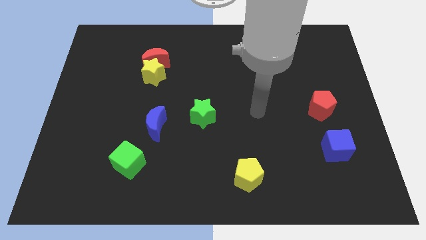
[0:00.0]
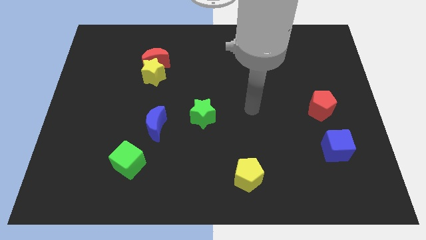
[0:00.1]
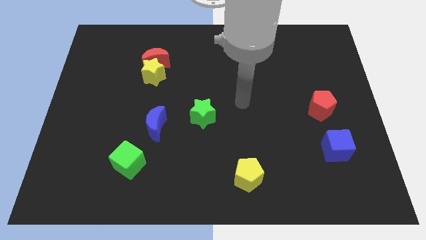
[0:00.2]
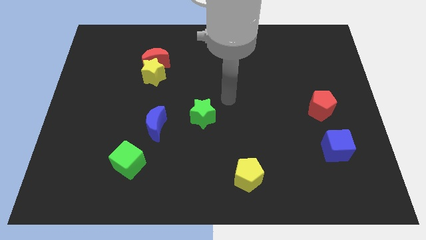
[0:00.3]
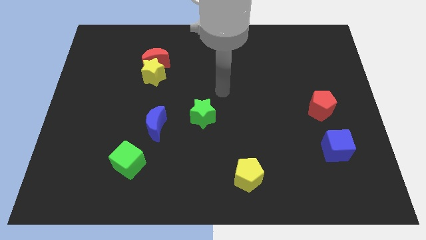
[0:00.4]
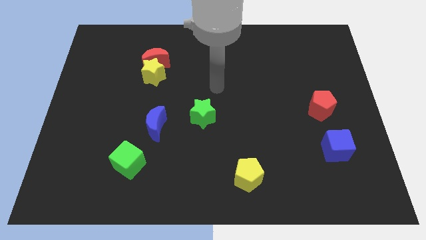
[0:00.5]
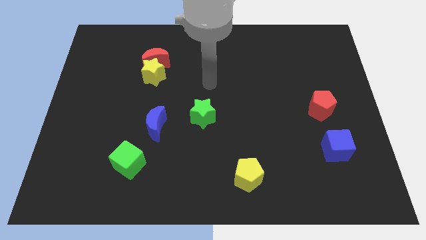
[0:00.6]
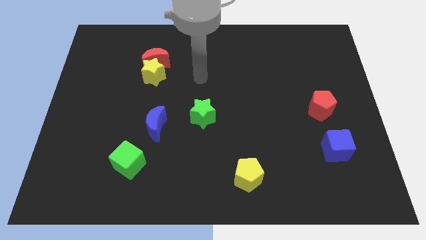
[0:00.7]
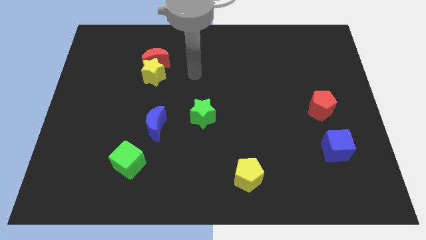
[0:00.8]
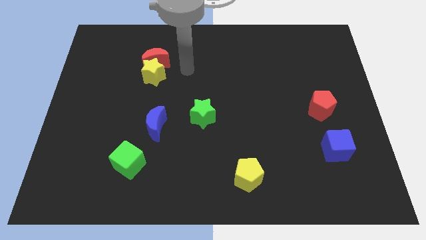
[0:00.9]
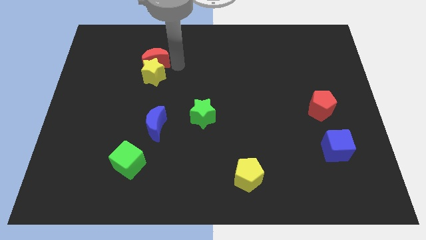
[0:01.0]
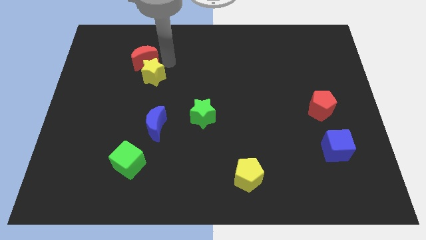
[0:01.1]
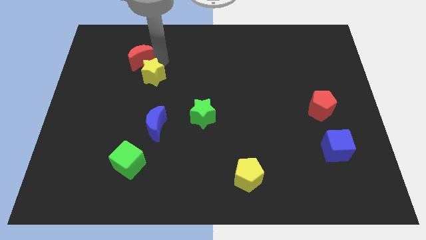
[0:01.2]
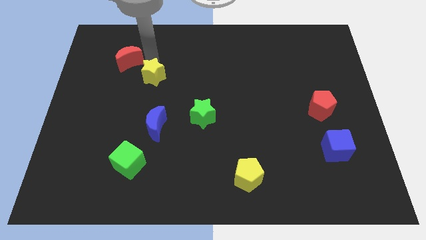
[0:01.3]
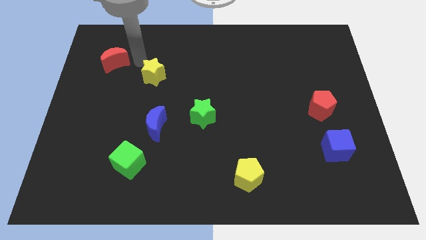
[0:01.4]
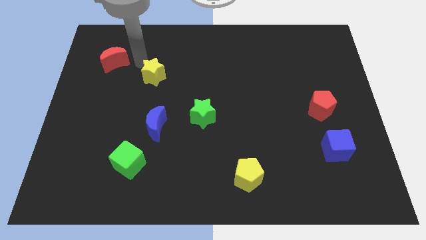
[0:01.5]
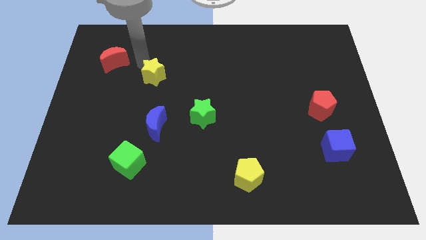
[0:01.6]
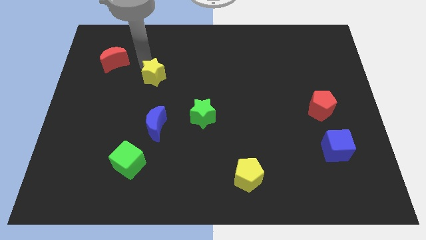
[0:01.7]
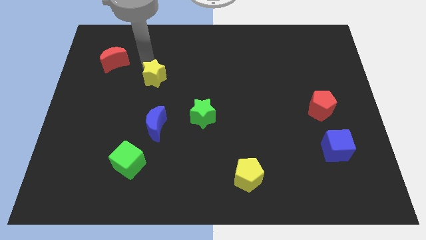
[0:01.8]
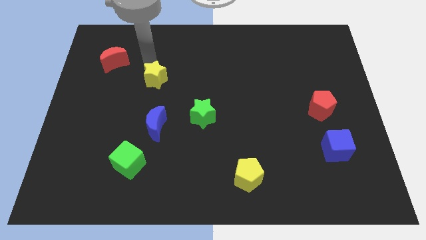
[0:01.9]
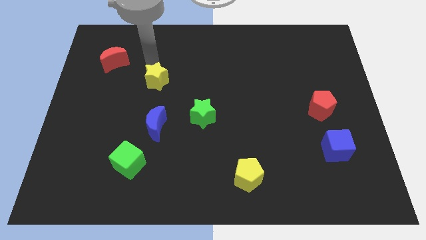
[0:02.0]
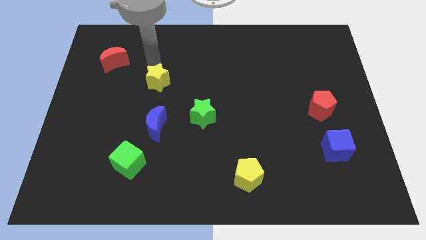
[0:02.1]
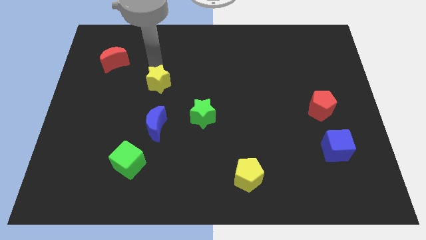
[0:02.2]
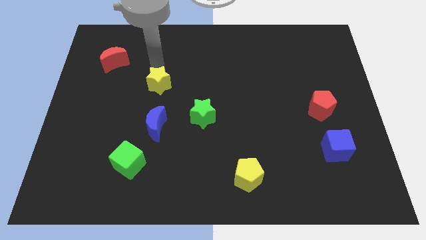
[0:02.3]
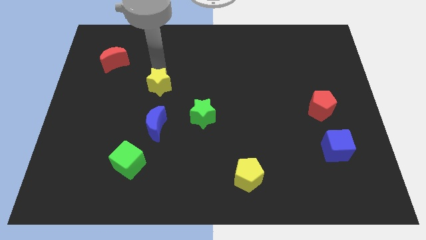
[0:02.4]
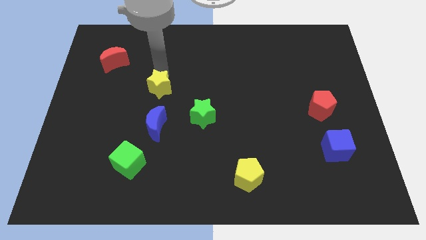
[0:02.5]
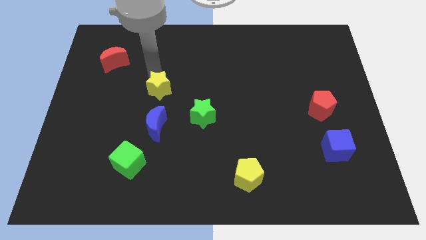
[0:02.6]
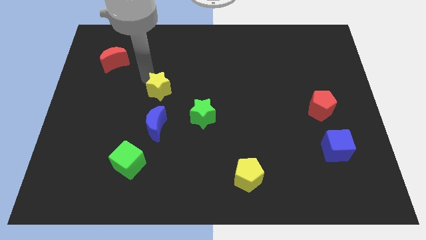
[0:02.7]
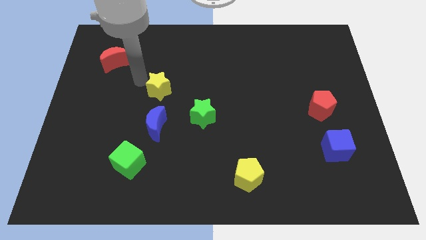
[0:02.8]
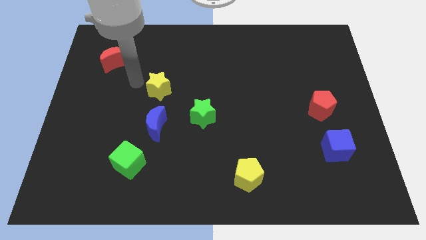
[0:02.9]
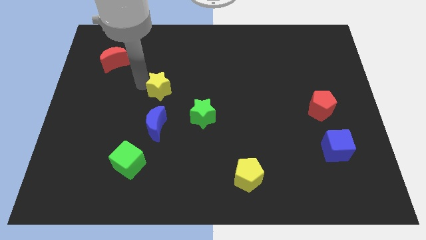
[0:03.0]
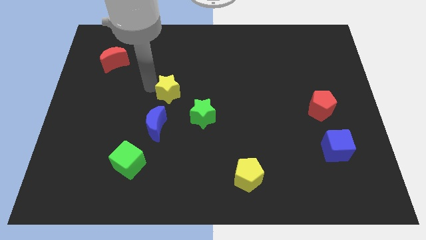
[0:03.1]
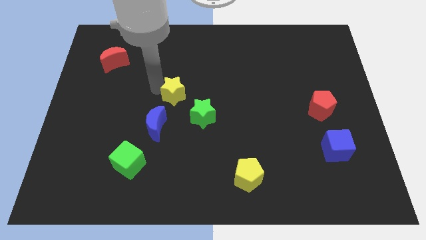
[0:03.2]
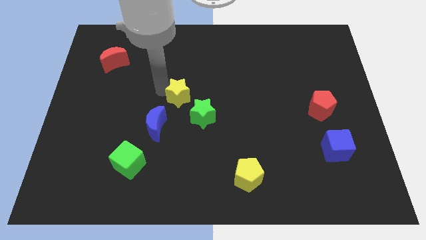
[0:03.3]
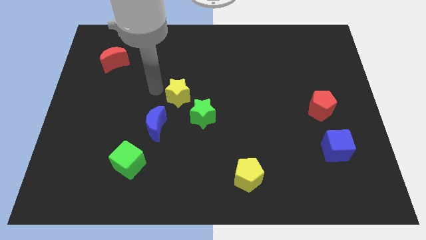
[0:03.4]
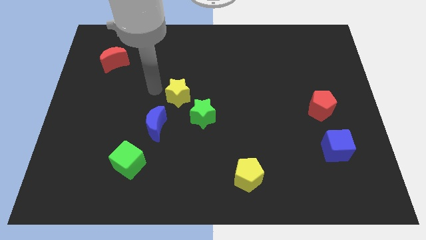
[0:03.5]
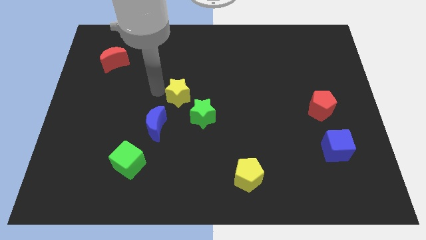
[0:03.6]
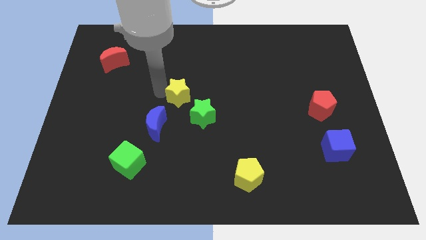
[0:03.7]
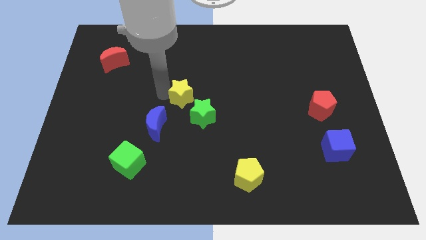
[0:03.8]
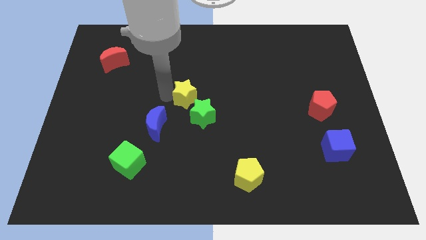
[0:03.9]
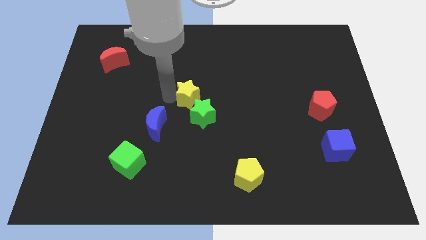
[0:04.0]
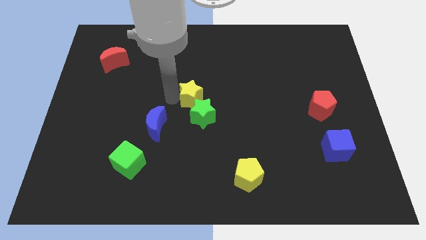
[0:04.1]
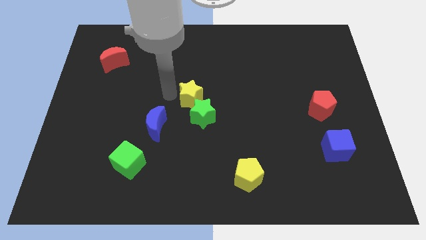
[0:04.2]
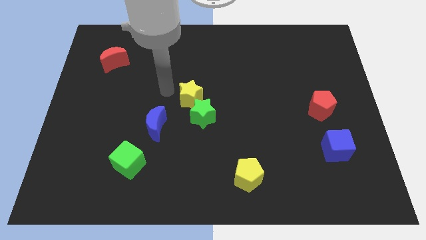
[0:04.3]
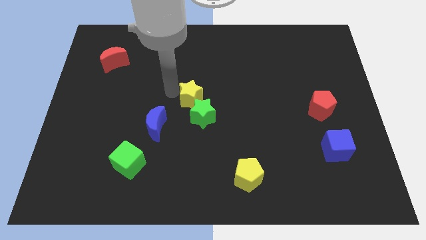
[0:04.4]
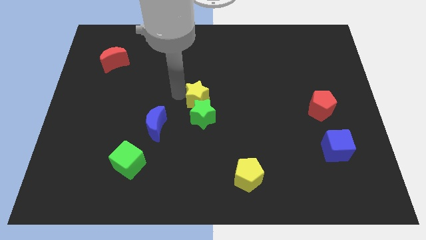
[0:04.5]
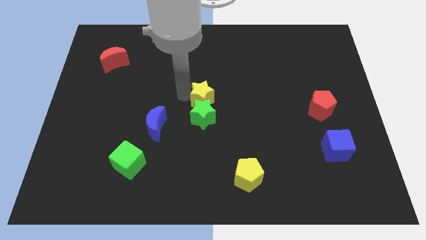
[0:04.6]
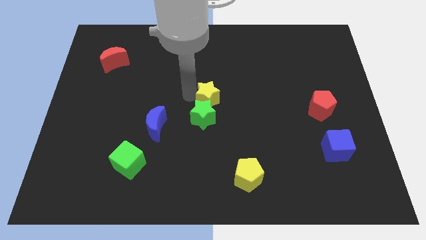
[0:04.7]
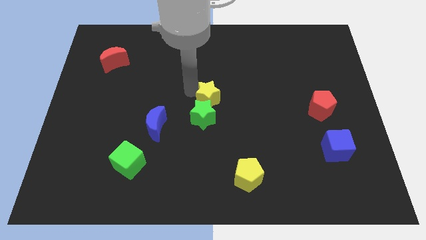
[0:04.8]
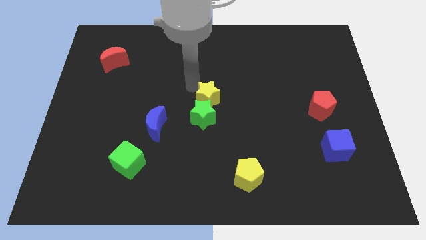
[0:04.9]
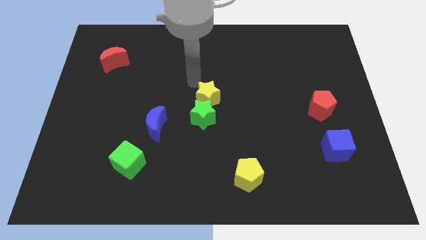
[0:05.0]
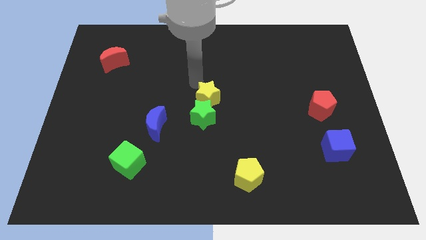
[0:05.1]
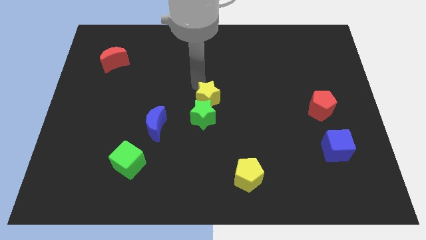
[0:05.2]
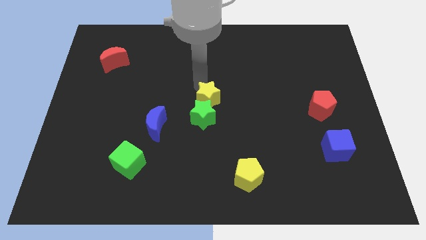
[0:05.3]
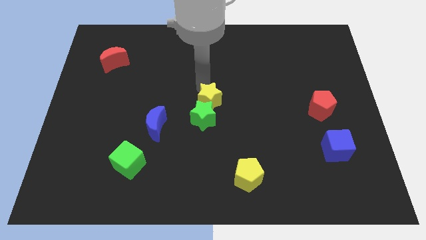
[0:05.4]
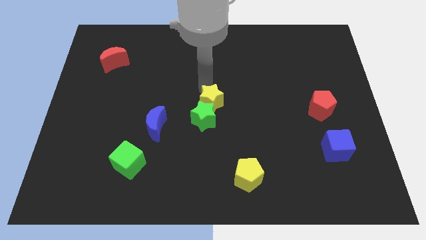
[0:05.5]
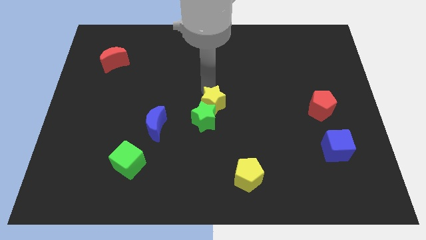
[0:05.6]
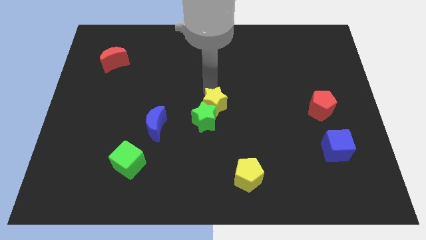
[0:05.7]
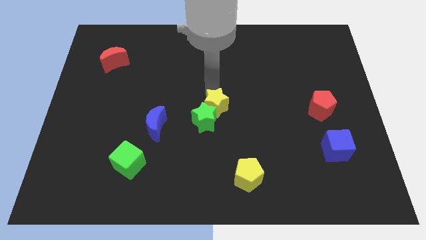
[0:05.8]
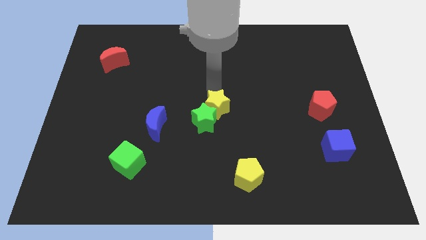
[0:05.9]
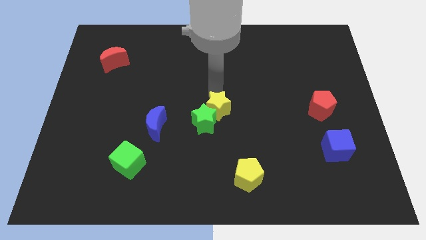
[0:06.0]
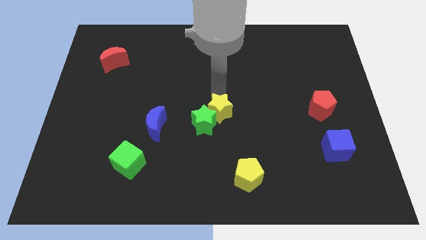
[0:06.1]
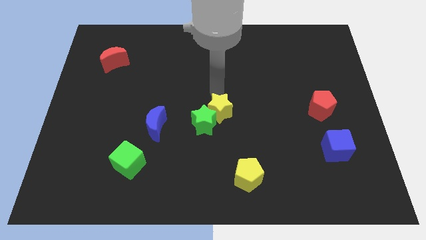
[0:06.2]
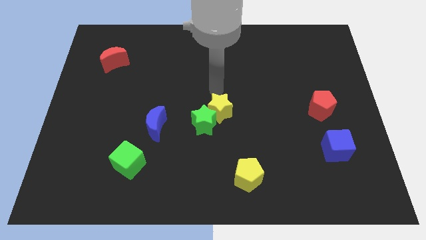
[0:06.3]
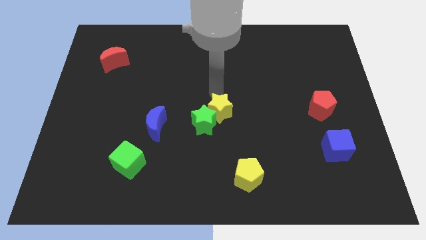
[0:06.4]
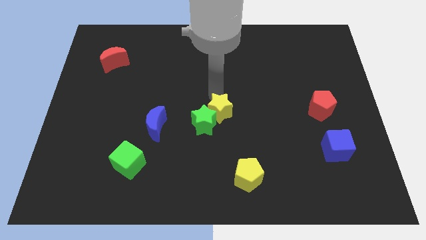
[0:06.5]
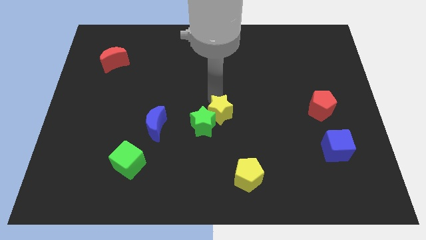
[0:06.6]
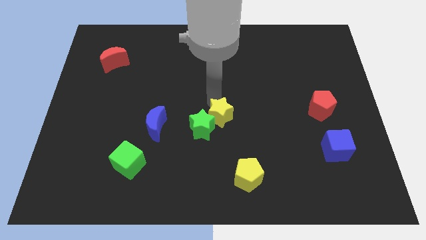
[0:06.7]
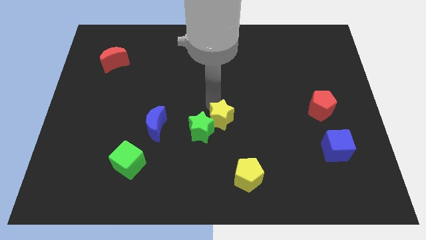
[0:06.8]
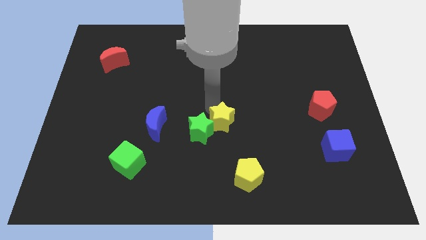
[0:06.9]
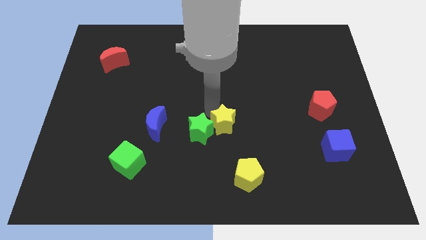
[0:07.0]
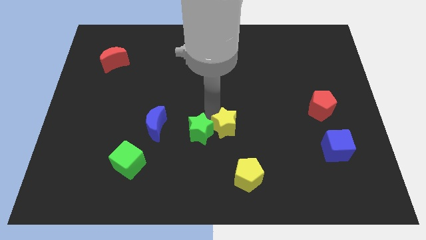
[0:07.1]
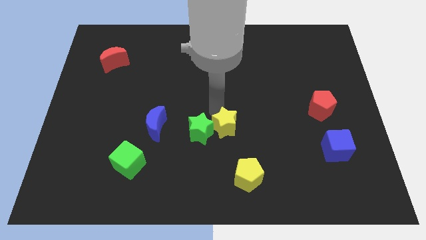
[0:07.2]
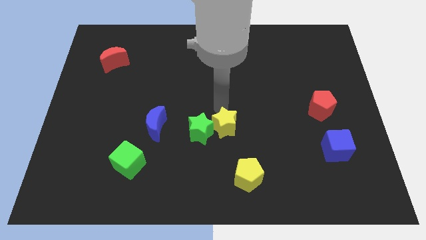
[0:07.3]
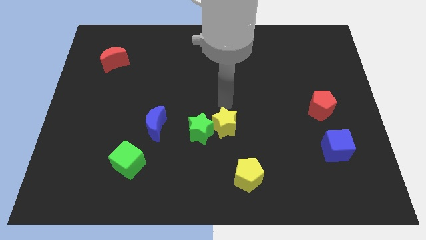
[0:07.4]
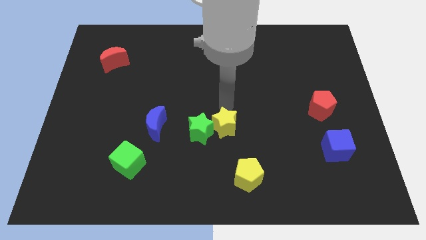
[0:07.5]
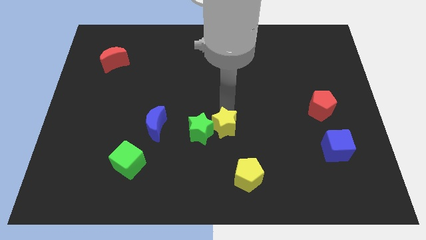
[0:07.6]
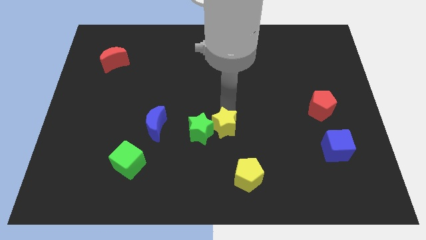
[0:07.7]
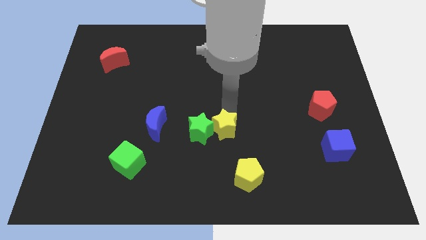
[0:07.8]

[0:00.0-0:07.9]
put the yellow star diagonally down and to the right of the green star
